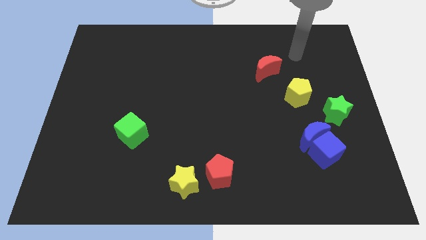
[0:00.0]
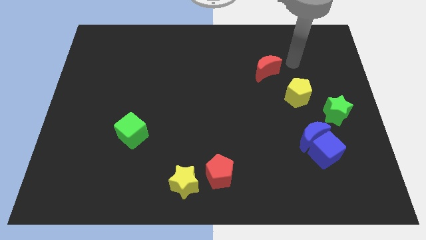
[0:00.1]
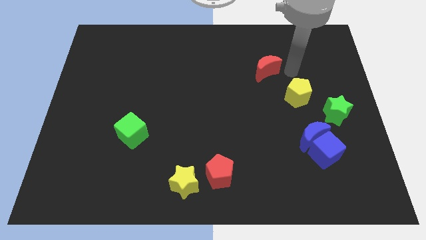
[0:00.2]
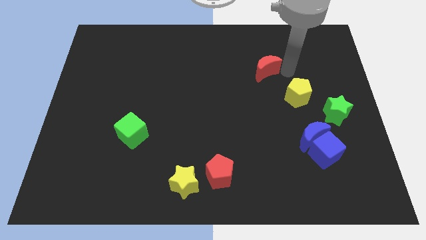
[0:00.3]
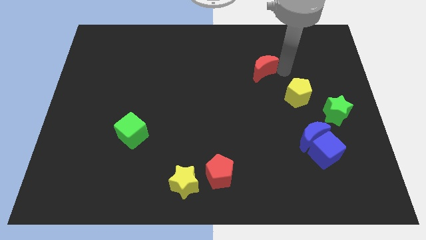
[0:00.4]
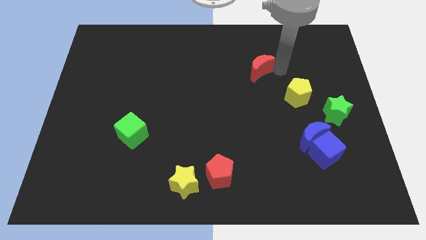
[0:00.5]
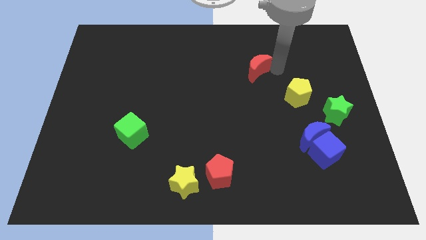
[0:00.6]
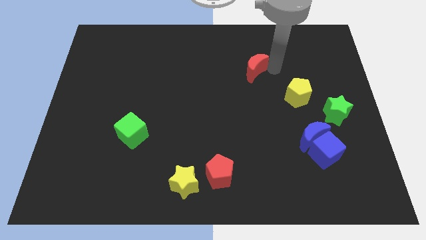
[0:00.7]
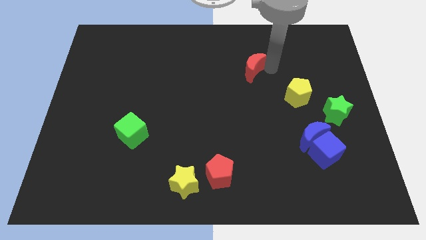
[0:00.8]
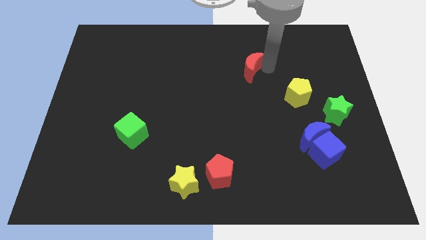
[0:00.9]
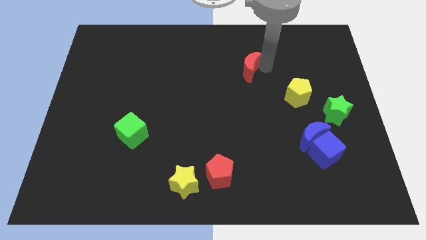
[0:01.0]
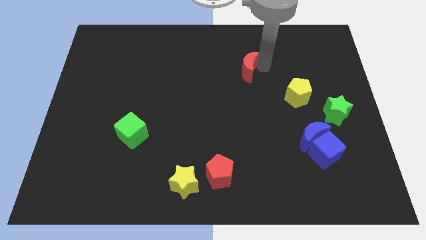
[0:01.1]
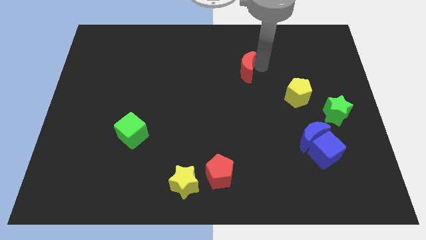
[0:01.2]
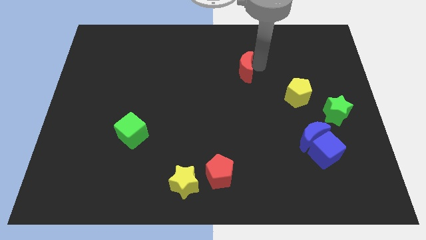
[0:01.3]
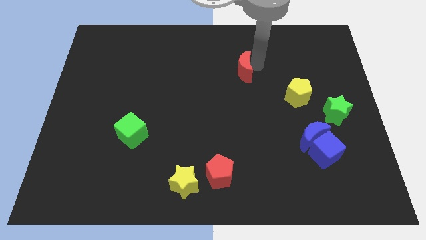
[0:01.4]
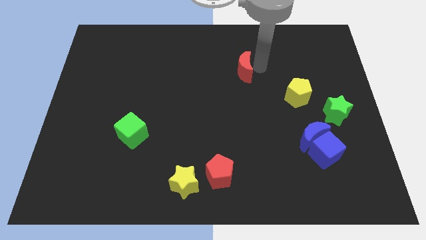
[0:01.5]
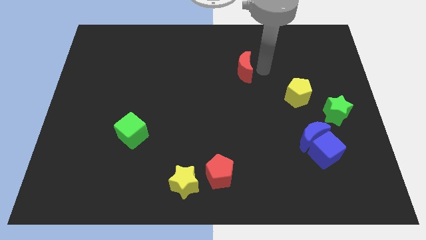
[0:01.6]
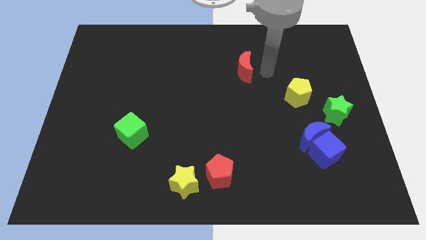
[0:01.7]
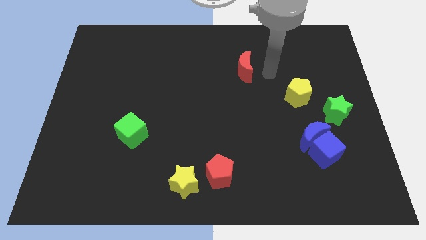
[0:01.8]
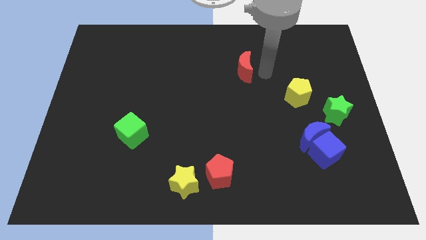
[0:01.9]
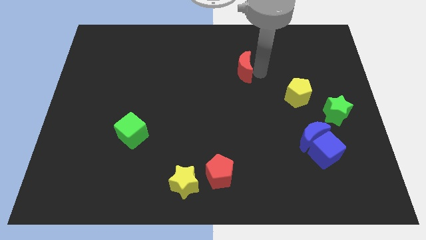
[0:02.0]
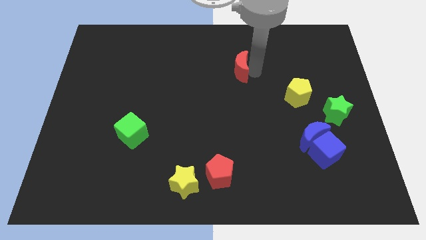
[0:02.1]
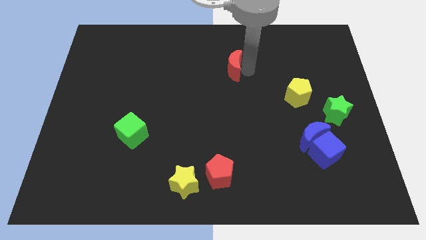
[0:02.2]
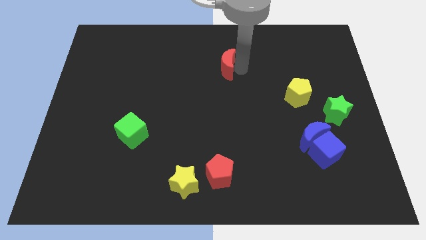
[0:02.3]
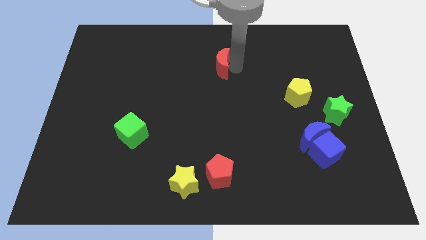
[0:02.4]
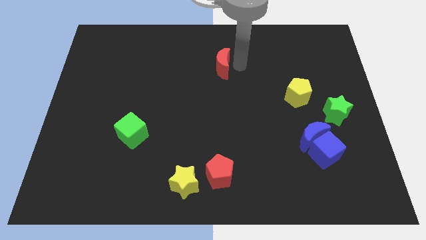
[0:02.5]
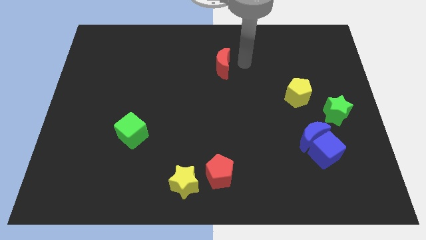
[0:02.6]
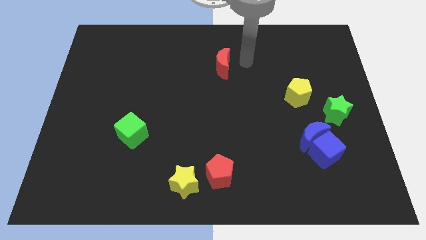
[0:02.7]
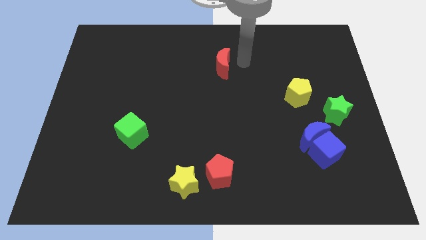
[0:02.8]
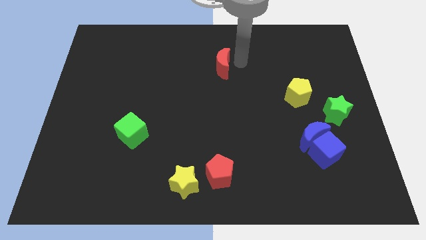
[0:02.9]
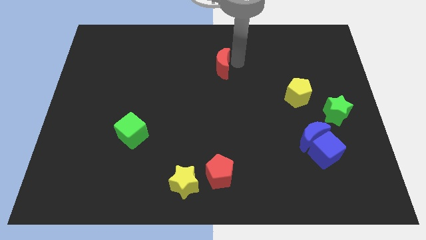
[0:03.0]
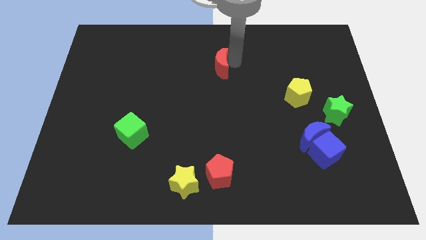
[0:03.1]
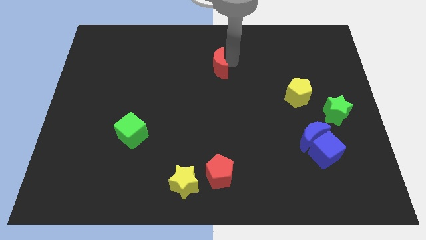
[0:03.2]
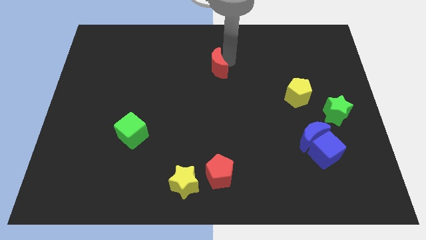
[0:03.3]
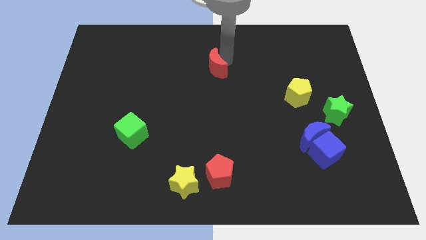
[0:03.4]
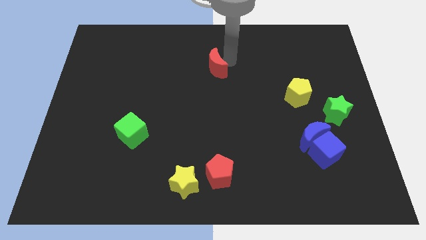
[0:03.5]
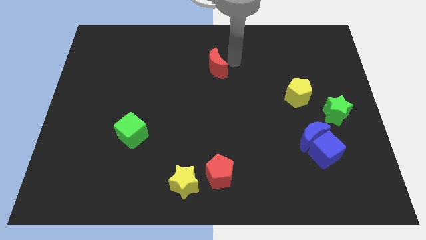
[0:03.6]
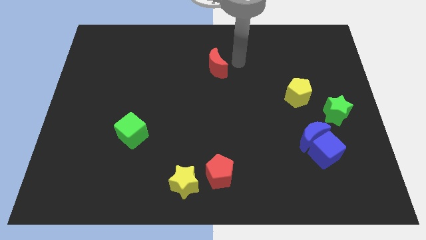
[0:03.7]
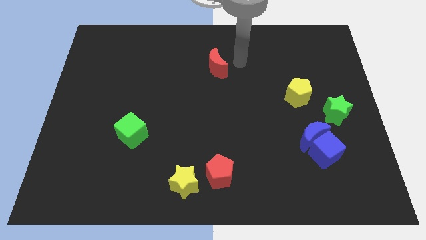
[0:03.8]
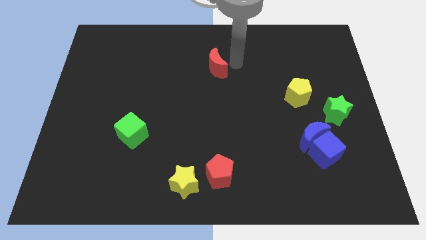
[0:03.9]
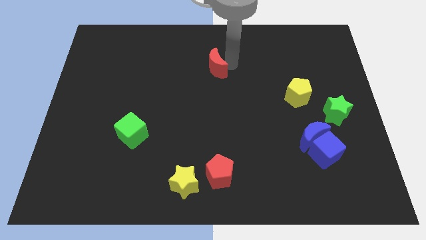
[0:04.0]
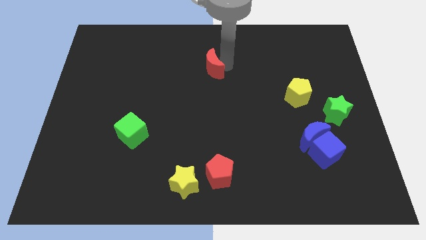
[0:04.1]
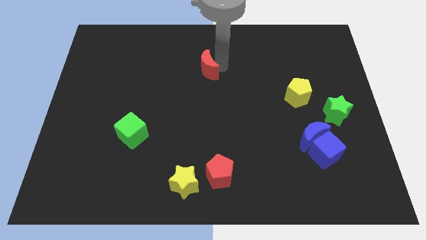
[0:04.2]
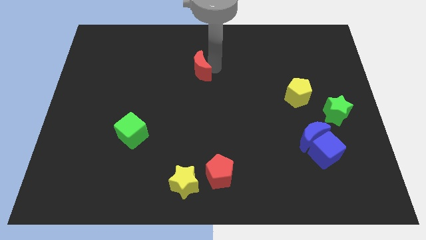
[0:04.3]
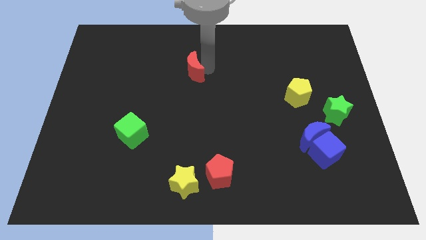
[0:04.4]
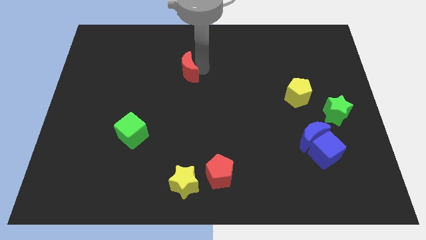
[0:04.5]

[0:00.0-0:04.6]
push the red moon left

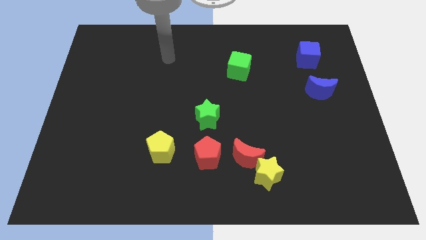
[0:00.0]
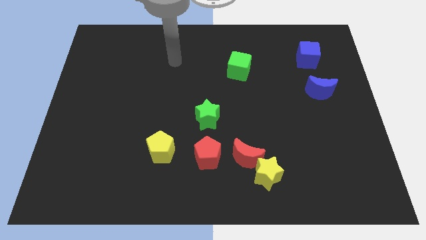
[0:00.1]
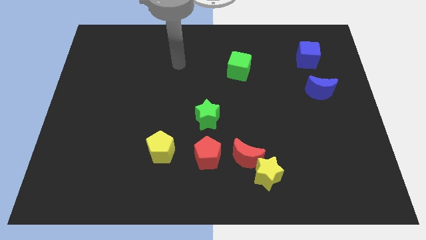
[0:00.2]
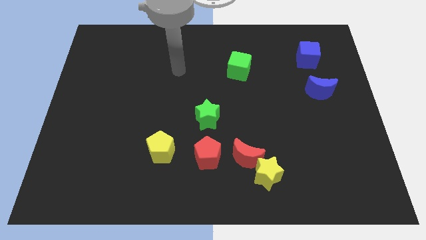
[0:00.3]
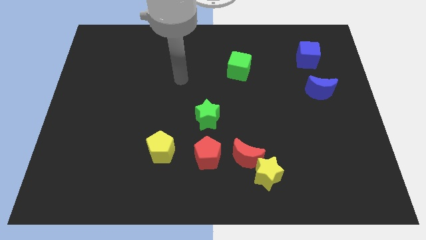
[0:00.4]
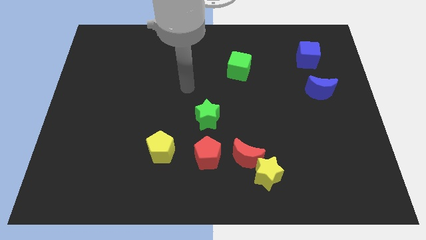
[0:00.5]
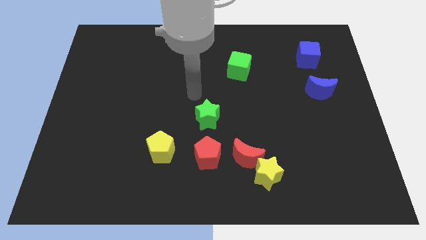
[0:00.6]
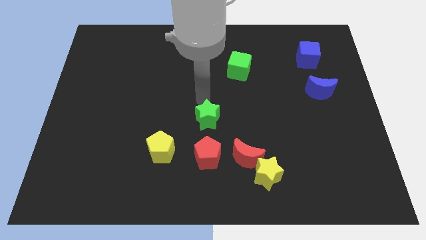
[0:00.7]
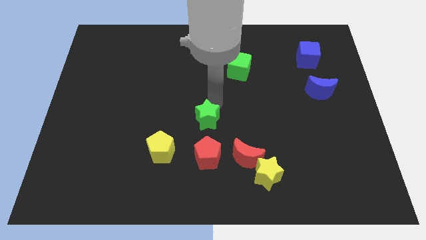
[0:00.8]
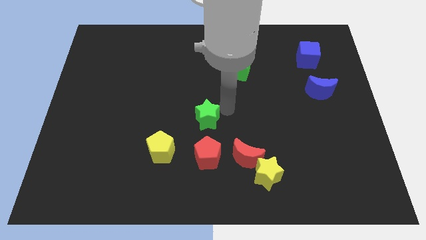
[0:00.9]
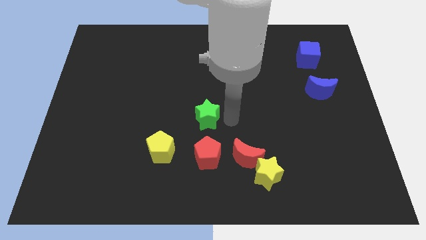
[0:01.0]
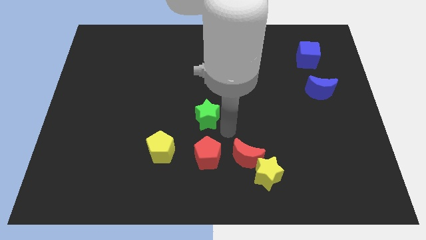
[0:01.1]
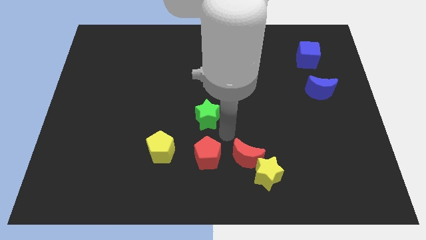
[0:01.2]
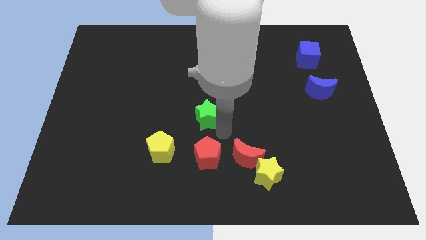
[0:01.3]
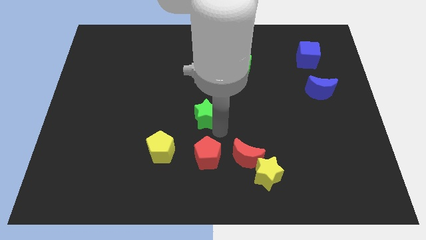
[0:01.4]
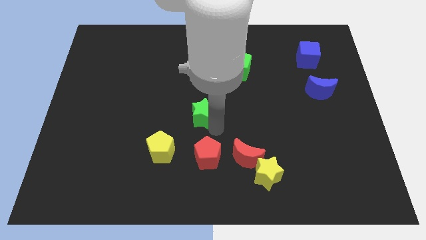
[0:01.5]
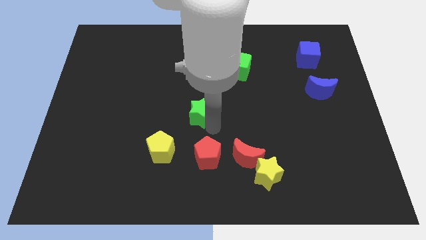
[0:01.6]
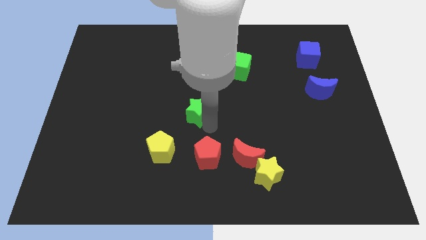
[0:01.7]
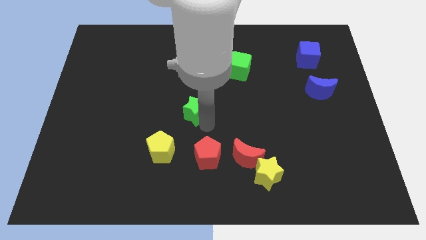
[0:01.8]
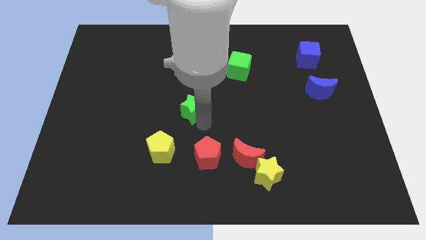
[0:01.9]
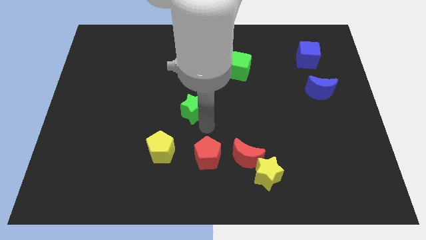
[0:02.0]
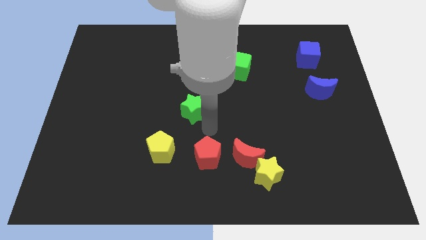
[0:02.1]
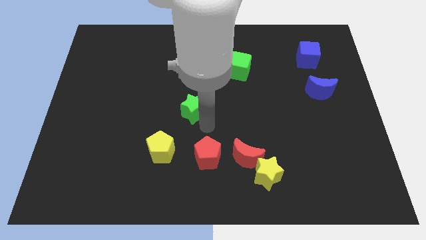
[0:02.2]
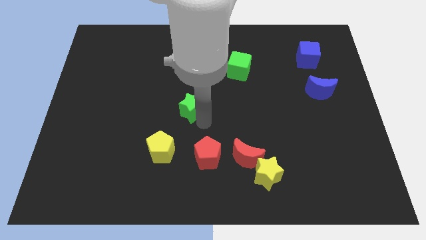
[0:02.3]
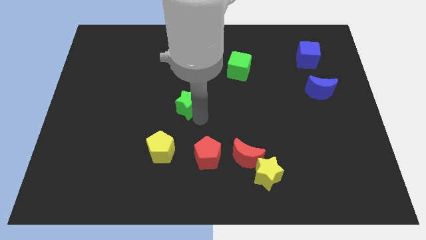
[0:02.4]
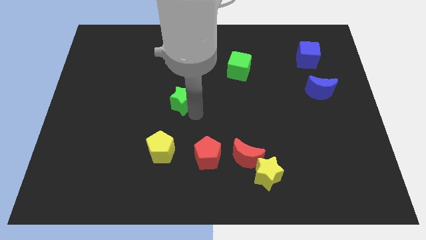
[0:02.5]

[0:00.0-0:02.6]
push the green star up and left diagonally a little bit

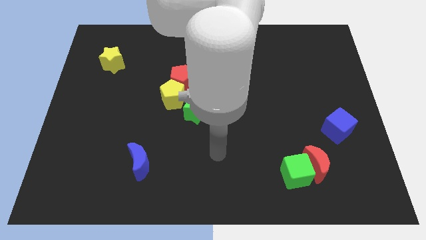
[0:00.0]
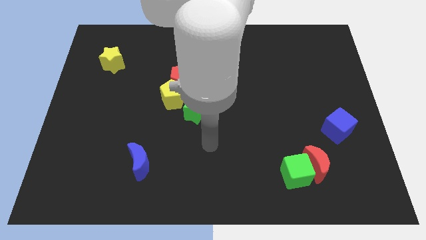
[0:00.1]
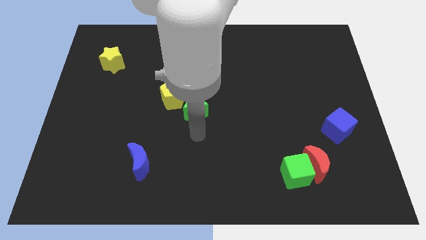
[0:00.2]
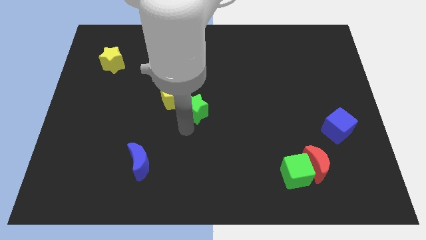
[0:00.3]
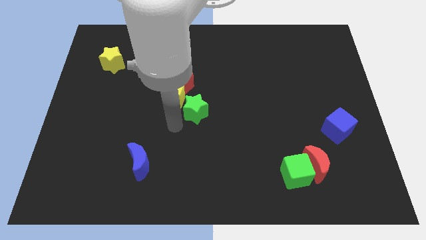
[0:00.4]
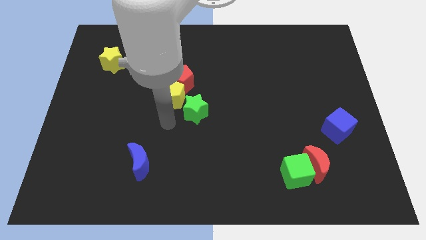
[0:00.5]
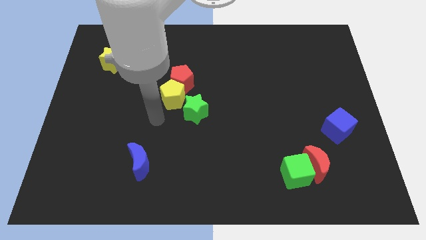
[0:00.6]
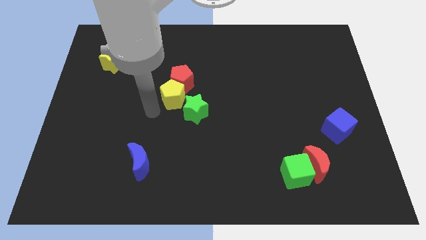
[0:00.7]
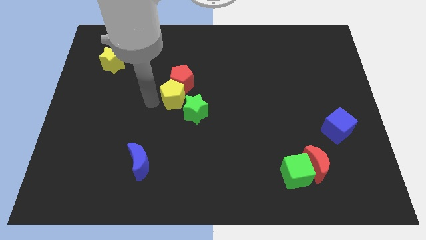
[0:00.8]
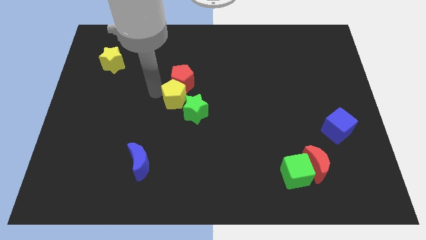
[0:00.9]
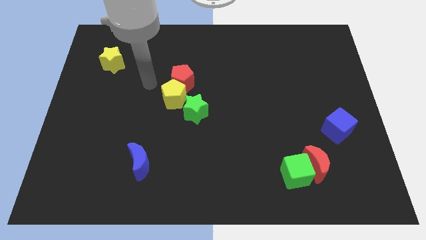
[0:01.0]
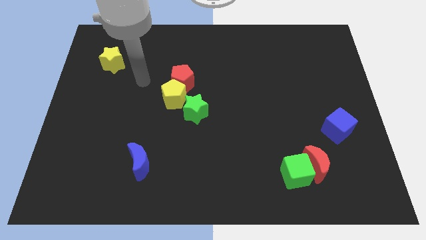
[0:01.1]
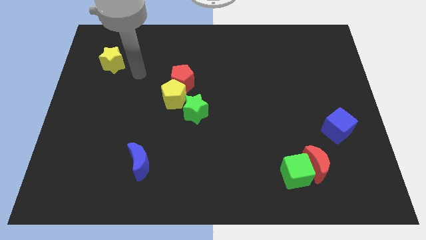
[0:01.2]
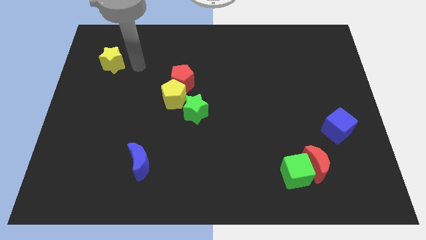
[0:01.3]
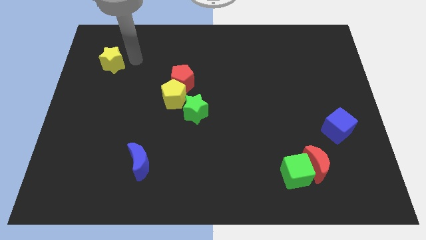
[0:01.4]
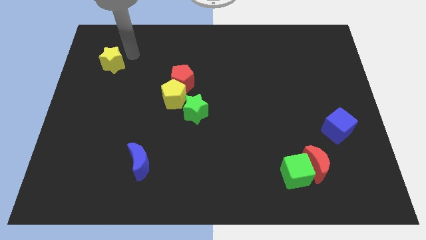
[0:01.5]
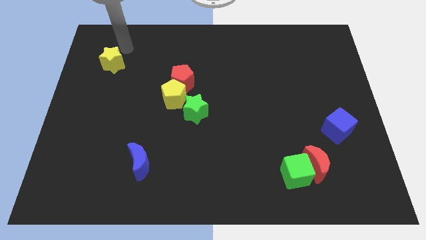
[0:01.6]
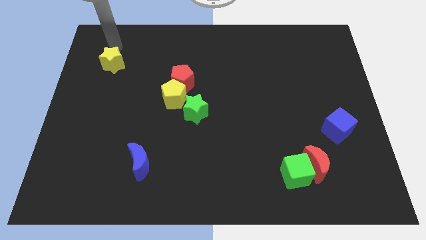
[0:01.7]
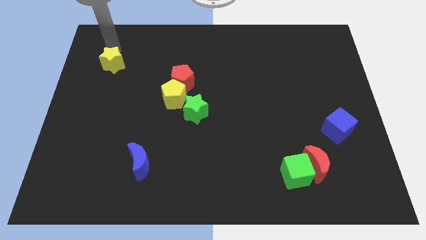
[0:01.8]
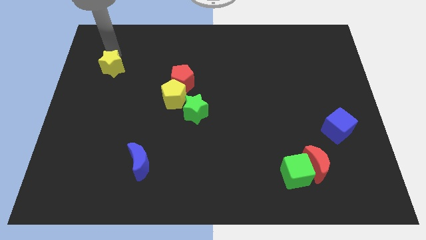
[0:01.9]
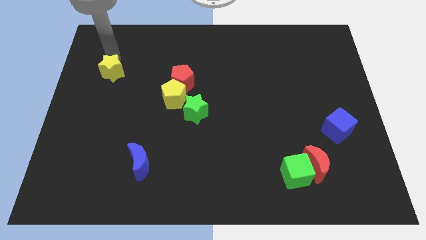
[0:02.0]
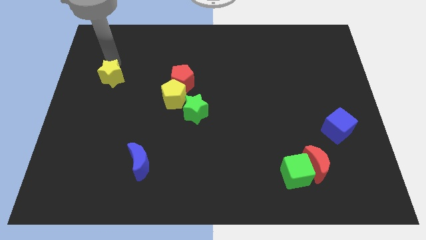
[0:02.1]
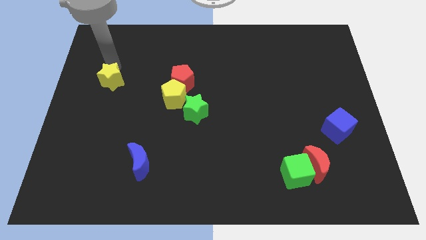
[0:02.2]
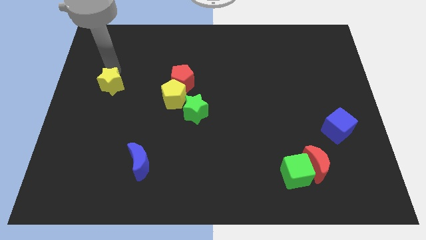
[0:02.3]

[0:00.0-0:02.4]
slightly slide the yellow star down
